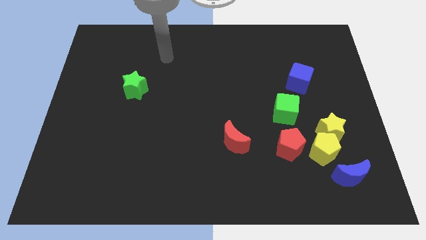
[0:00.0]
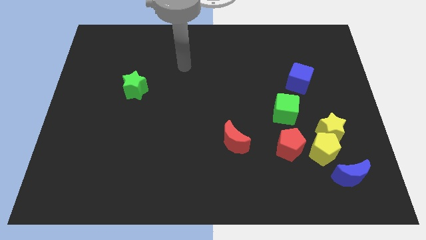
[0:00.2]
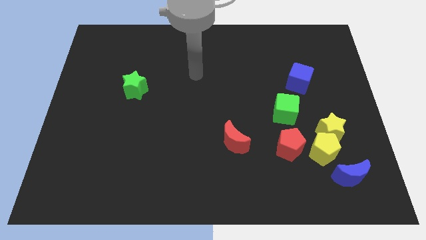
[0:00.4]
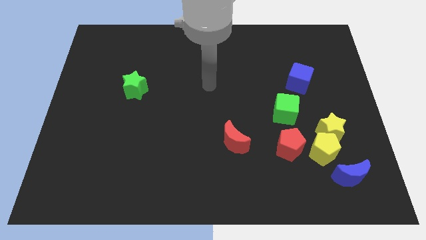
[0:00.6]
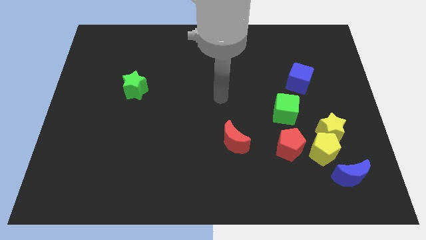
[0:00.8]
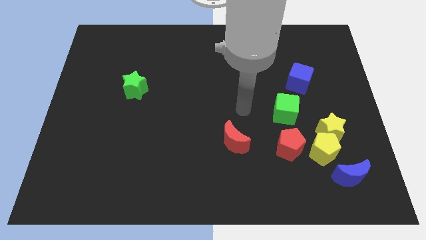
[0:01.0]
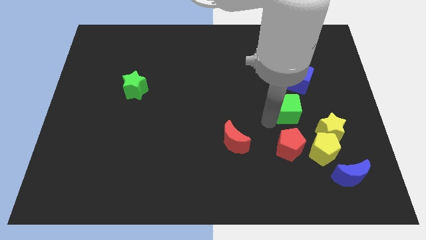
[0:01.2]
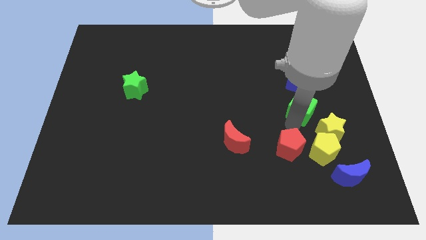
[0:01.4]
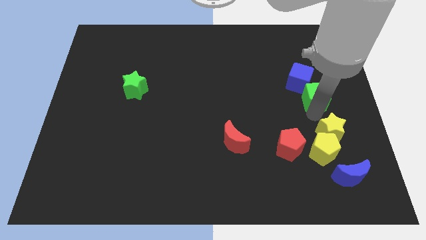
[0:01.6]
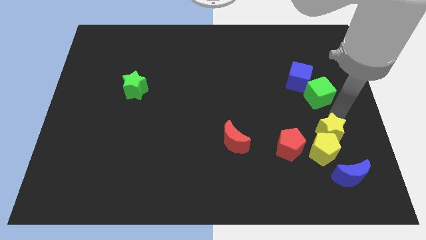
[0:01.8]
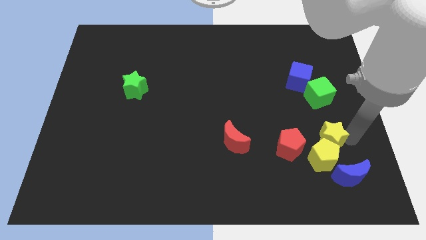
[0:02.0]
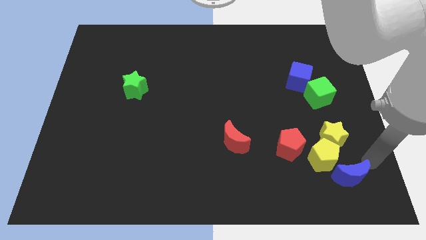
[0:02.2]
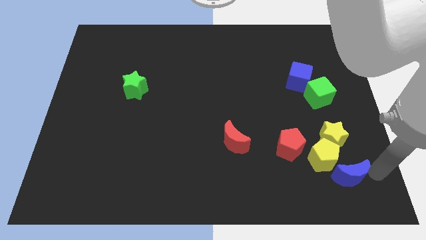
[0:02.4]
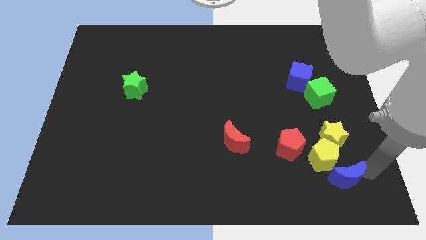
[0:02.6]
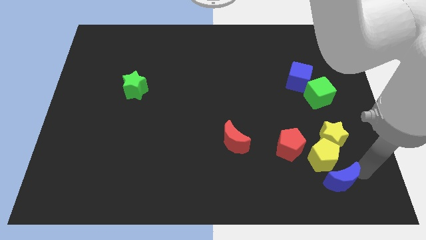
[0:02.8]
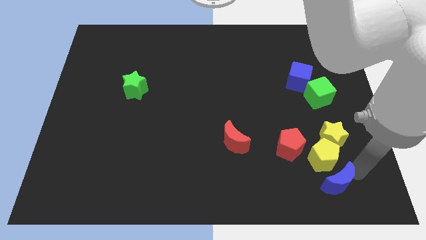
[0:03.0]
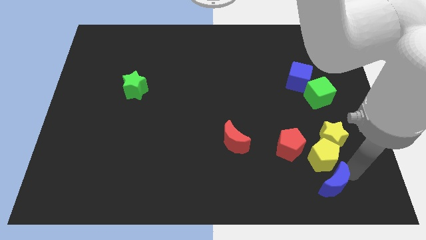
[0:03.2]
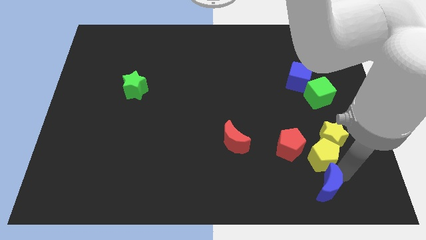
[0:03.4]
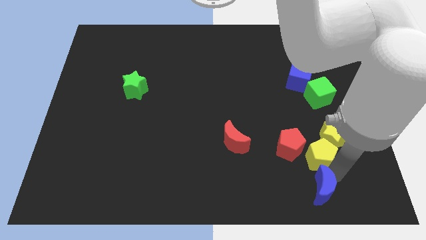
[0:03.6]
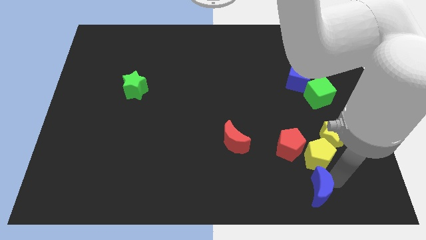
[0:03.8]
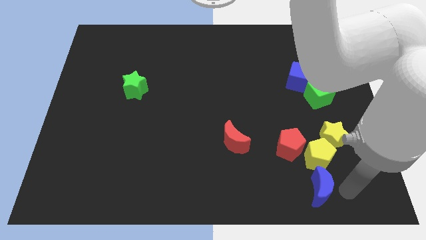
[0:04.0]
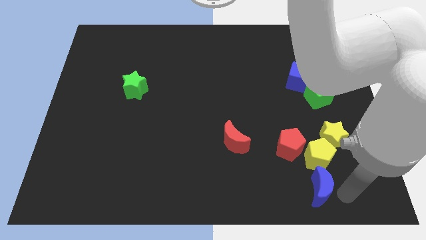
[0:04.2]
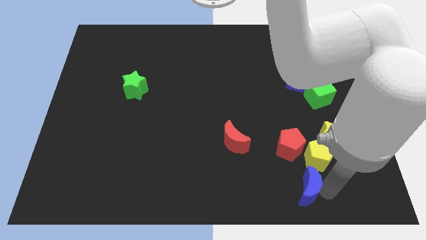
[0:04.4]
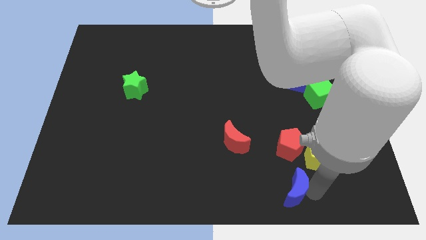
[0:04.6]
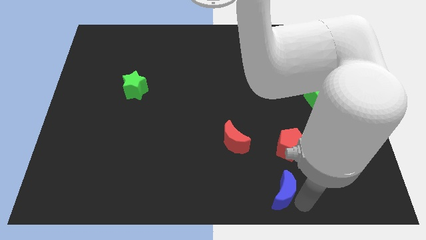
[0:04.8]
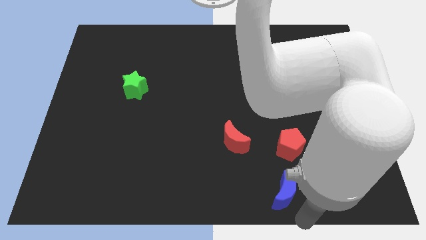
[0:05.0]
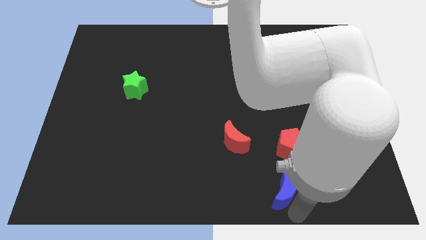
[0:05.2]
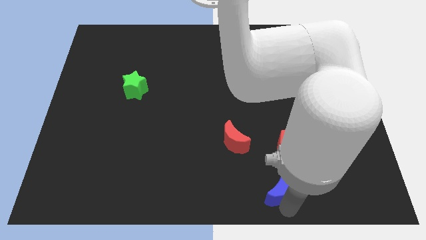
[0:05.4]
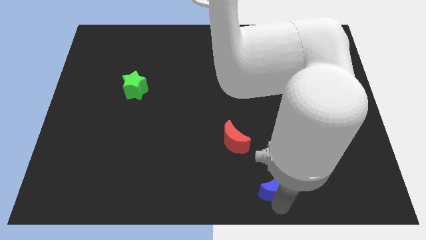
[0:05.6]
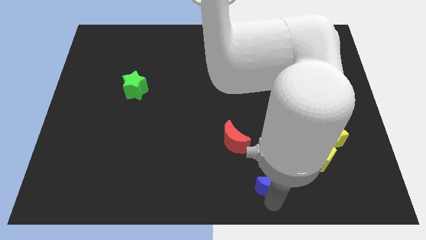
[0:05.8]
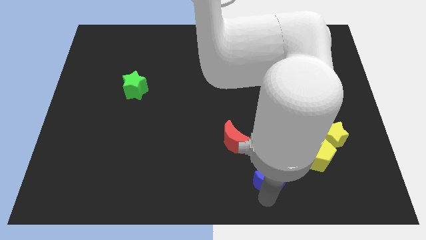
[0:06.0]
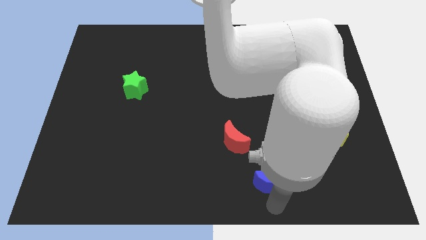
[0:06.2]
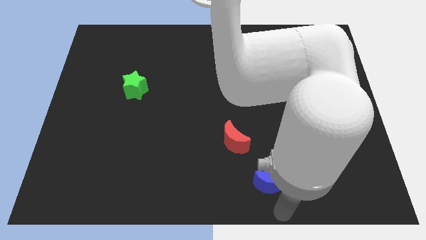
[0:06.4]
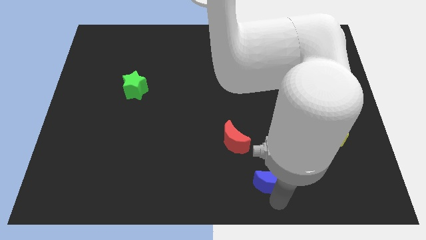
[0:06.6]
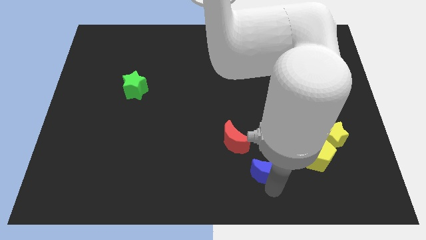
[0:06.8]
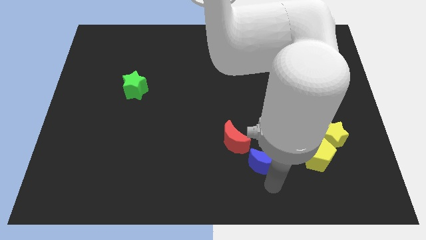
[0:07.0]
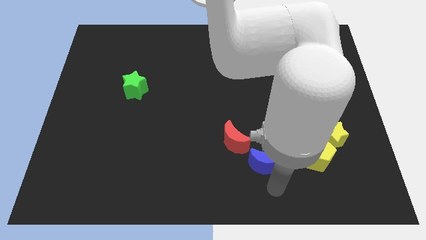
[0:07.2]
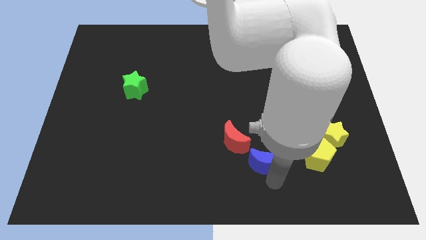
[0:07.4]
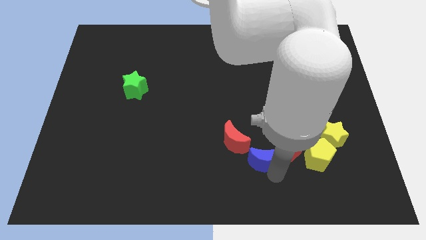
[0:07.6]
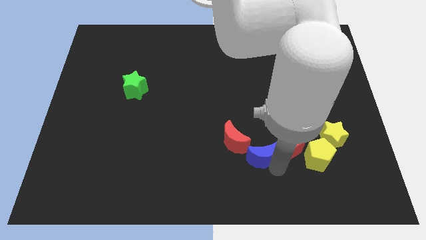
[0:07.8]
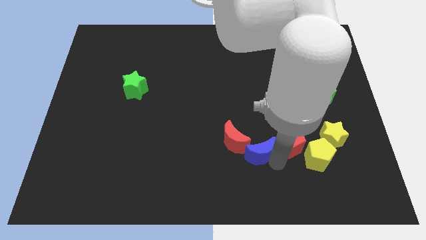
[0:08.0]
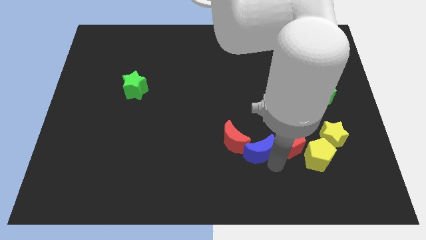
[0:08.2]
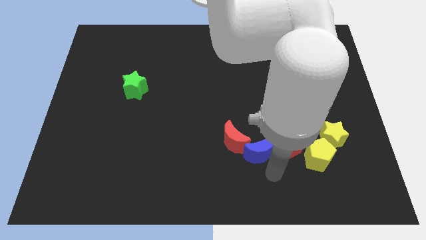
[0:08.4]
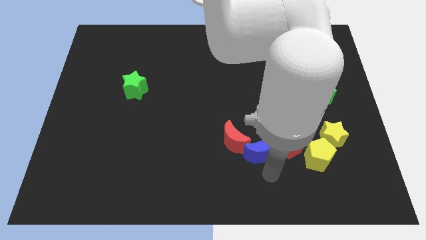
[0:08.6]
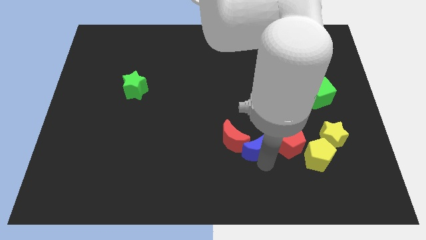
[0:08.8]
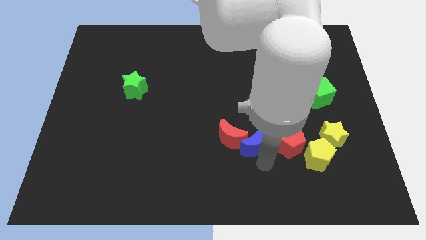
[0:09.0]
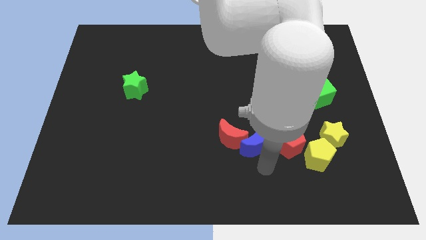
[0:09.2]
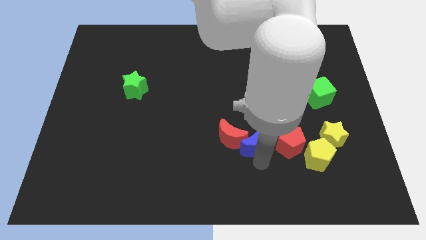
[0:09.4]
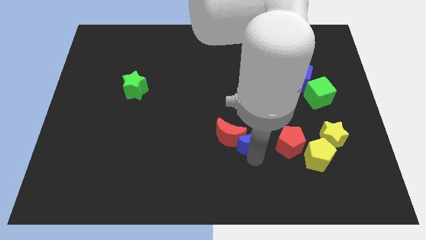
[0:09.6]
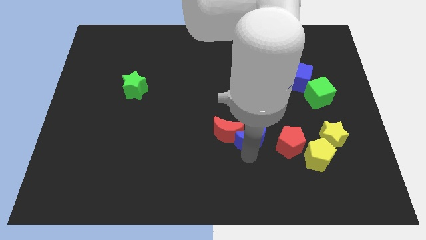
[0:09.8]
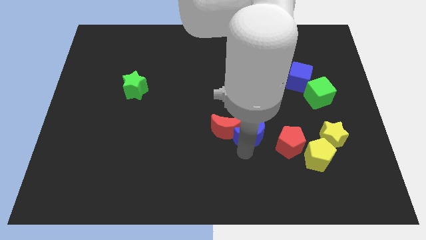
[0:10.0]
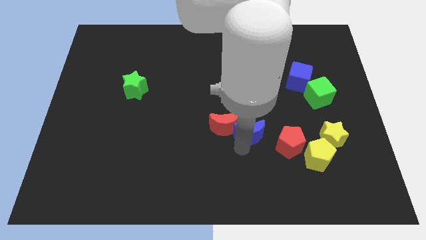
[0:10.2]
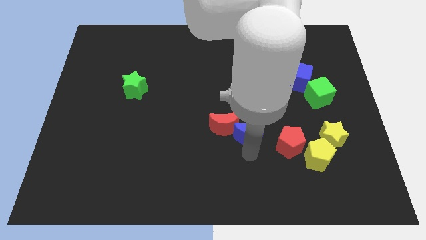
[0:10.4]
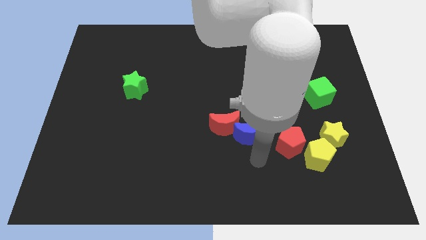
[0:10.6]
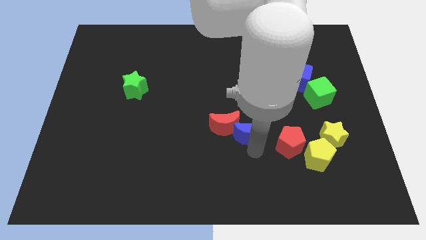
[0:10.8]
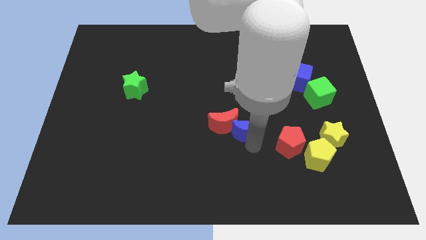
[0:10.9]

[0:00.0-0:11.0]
slide the blue moon up and left

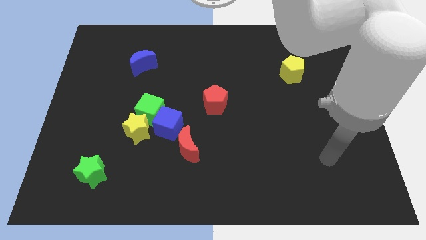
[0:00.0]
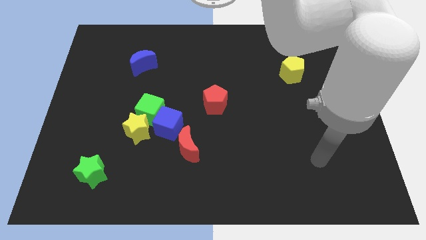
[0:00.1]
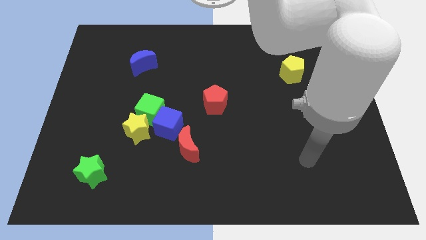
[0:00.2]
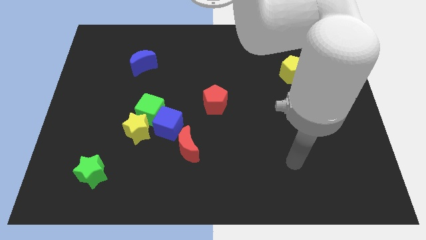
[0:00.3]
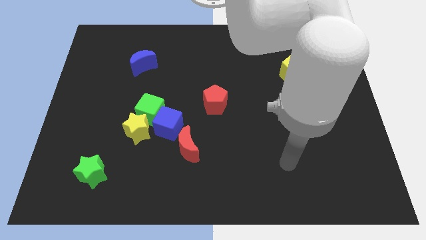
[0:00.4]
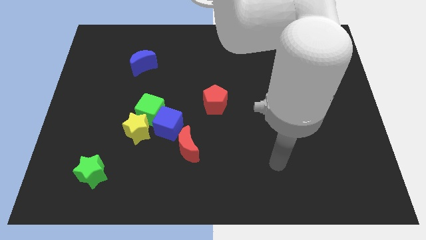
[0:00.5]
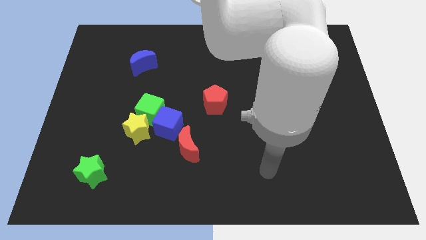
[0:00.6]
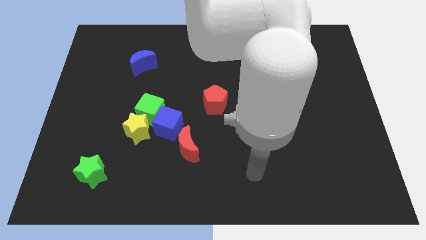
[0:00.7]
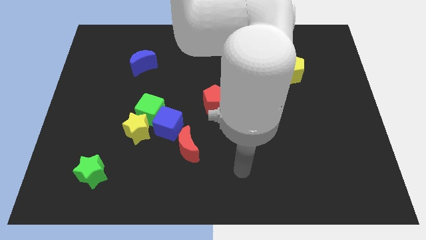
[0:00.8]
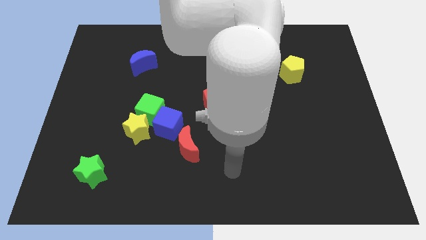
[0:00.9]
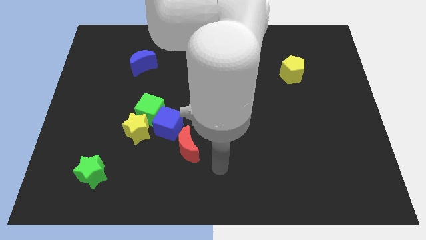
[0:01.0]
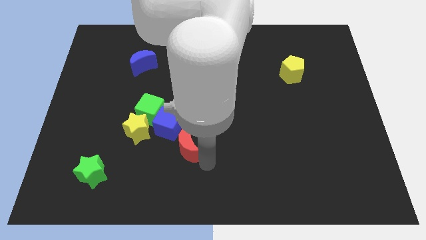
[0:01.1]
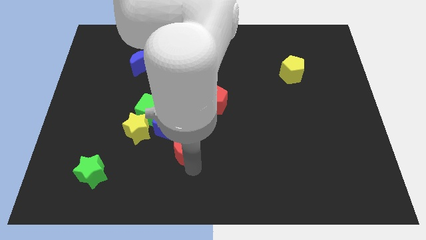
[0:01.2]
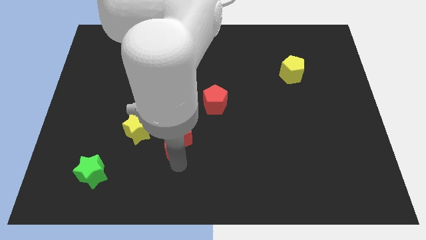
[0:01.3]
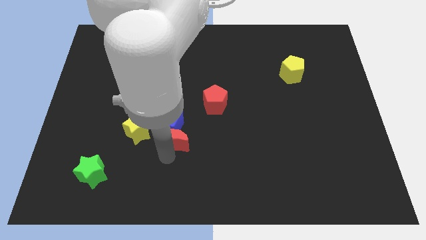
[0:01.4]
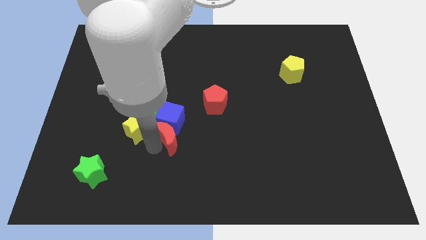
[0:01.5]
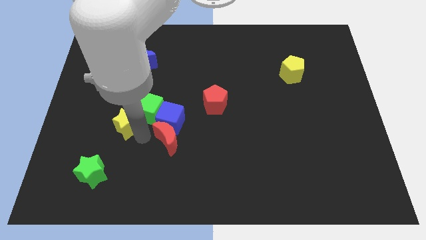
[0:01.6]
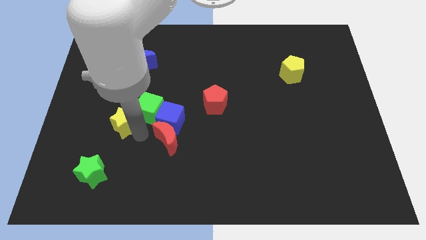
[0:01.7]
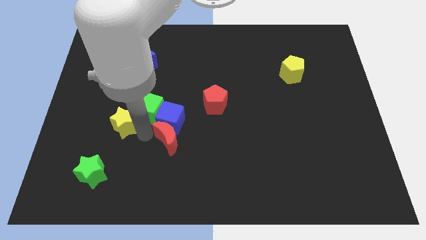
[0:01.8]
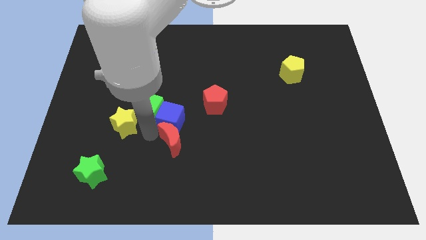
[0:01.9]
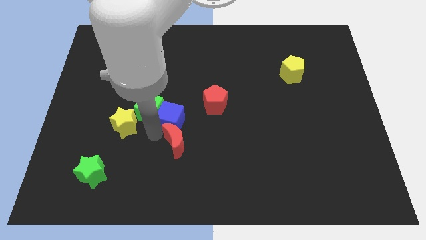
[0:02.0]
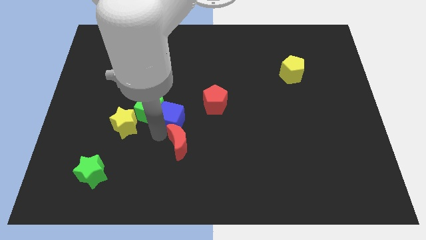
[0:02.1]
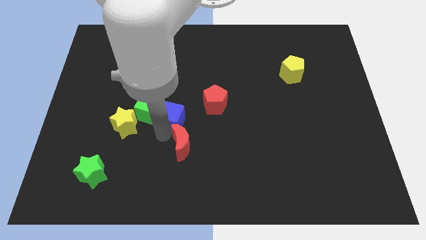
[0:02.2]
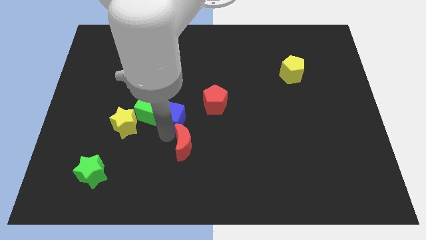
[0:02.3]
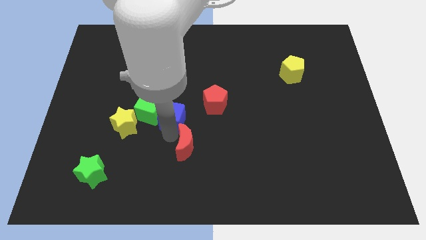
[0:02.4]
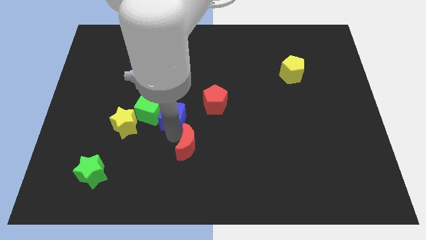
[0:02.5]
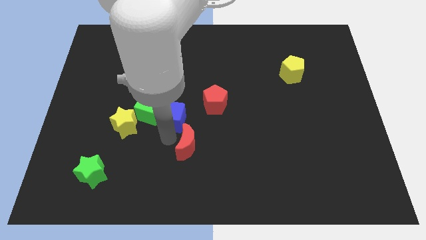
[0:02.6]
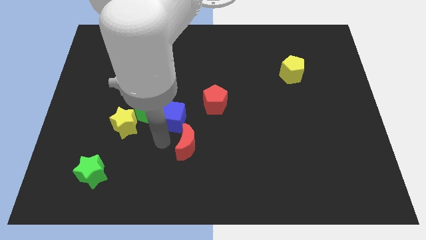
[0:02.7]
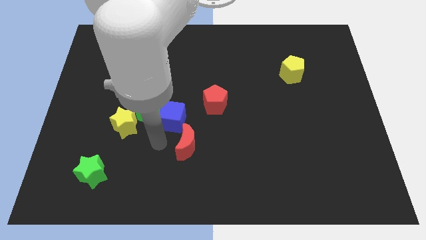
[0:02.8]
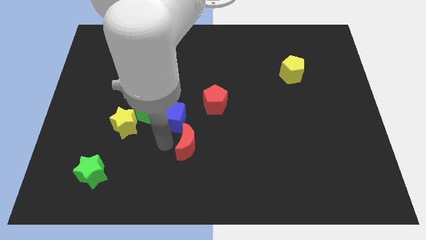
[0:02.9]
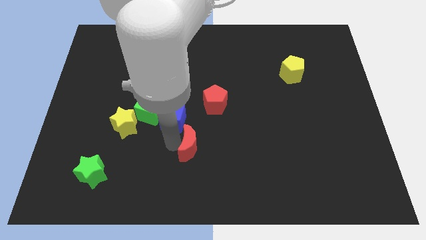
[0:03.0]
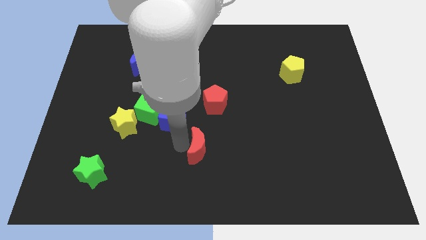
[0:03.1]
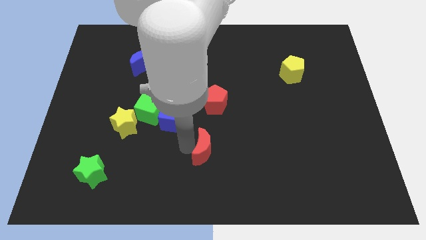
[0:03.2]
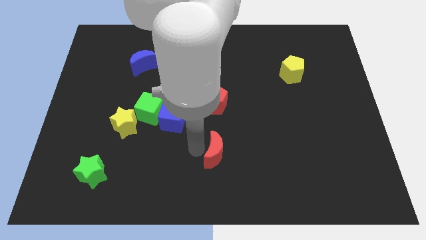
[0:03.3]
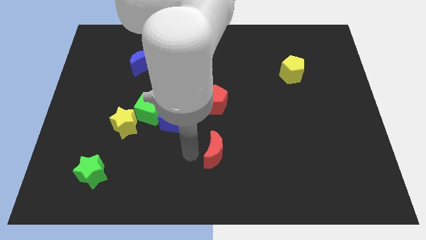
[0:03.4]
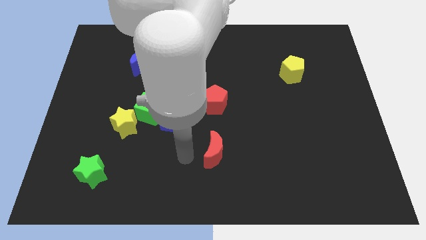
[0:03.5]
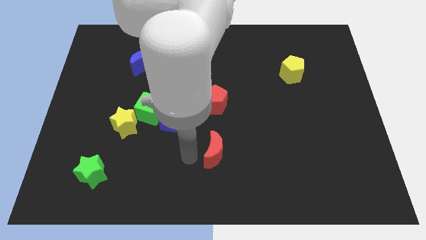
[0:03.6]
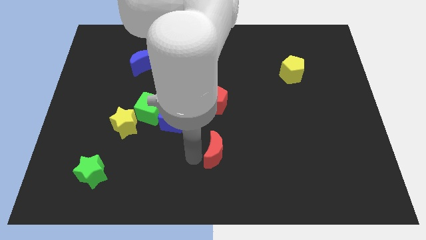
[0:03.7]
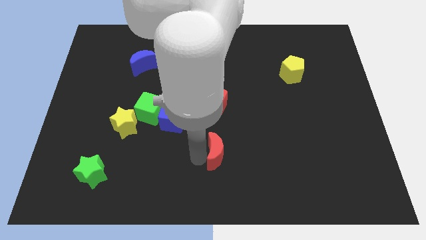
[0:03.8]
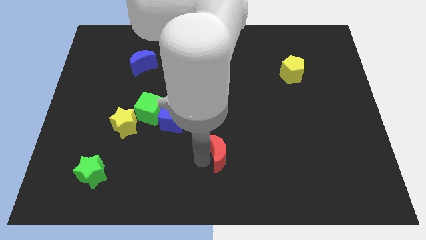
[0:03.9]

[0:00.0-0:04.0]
move the red moon slightly right
